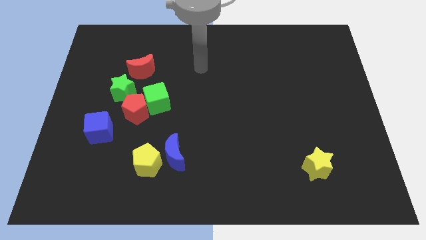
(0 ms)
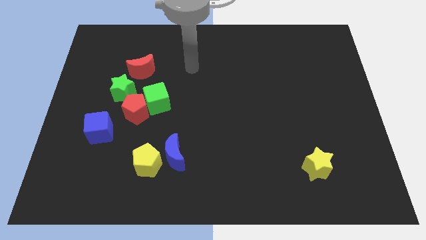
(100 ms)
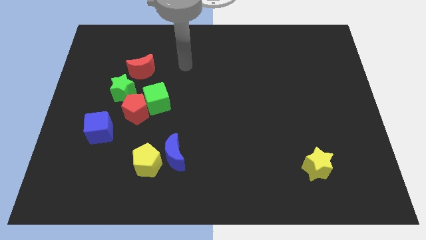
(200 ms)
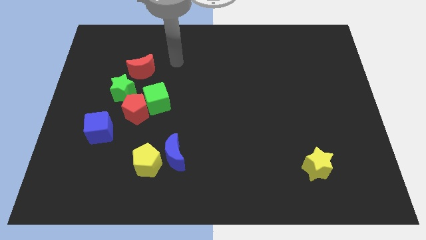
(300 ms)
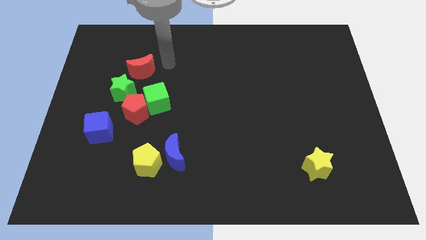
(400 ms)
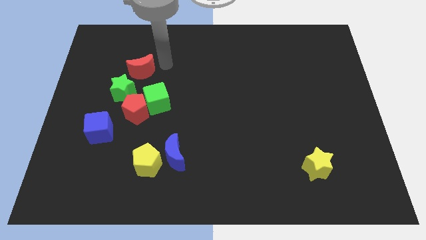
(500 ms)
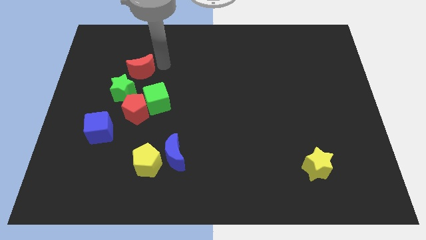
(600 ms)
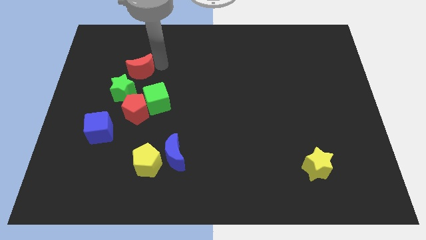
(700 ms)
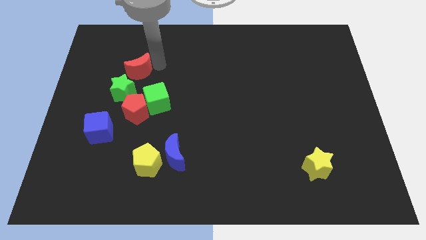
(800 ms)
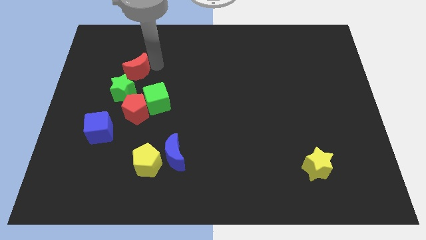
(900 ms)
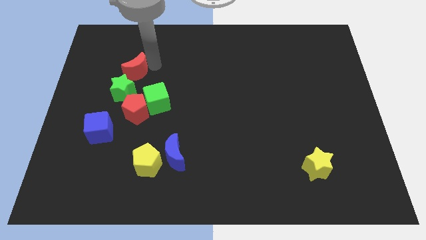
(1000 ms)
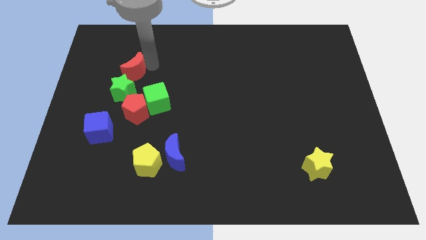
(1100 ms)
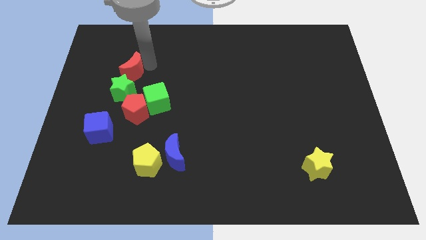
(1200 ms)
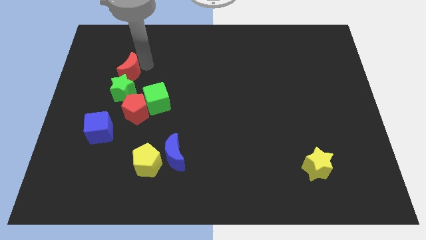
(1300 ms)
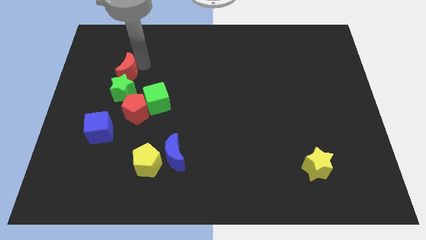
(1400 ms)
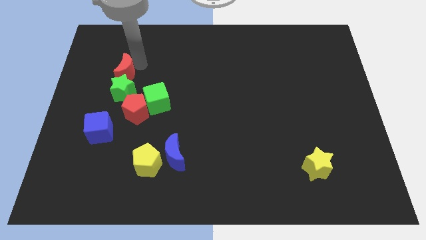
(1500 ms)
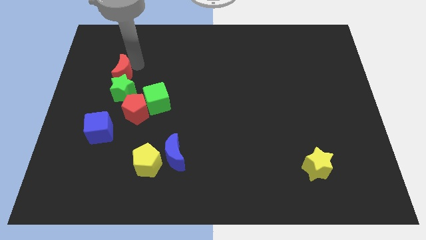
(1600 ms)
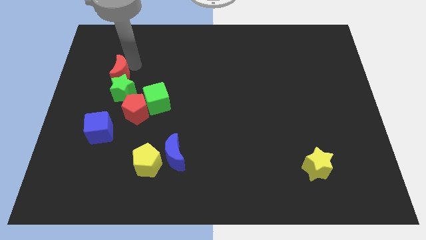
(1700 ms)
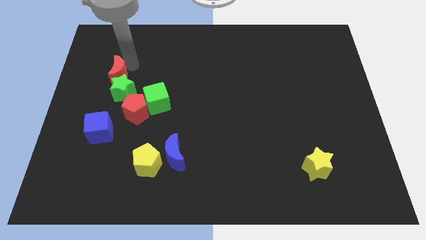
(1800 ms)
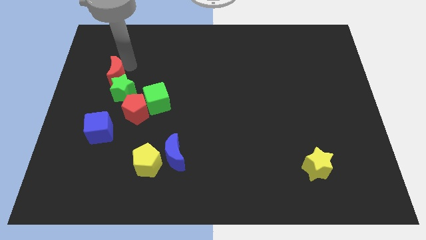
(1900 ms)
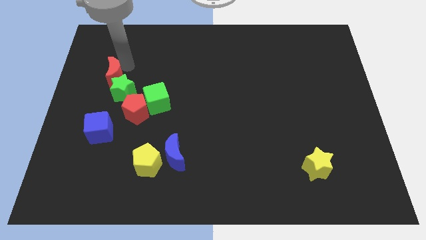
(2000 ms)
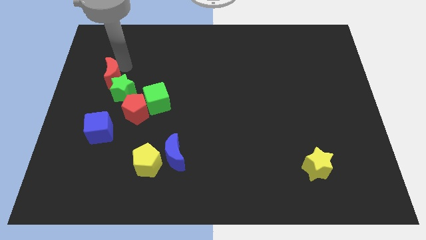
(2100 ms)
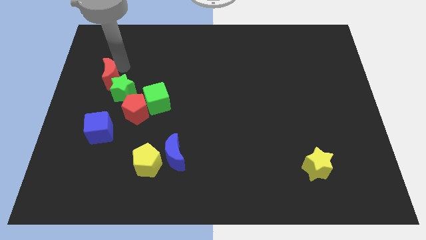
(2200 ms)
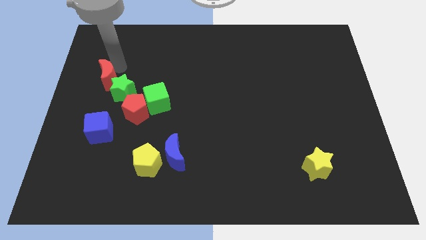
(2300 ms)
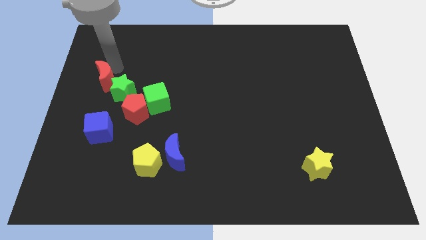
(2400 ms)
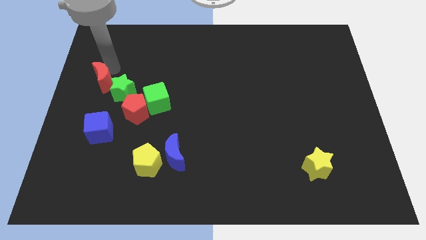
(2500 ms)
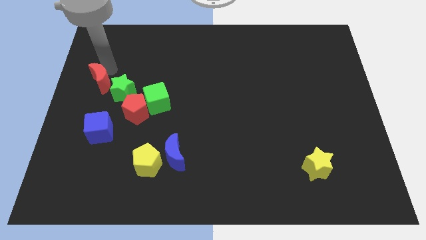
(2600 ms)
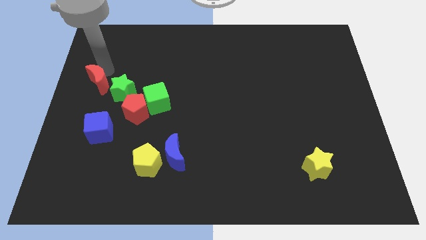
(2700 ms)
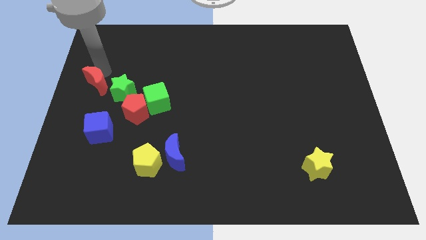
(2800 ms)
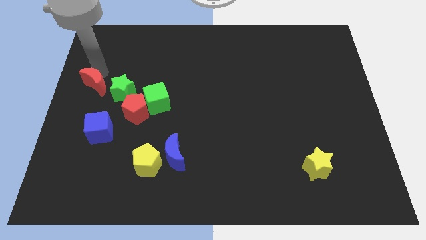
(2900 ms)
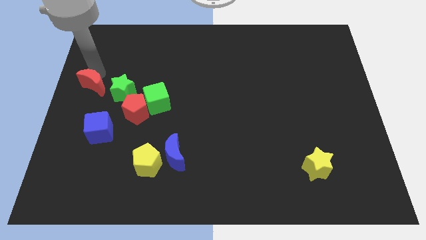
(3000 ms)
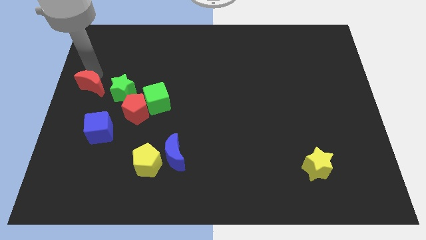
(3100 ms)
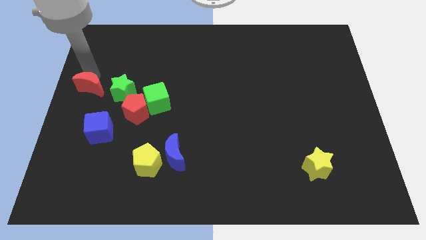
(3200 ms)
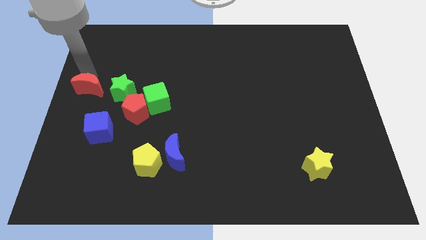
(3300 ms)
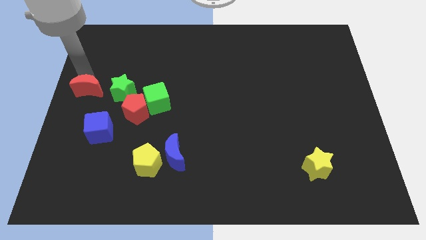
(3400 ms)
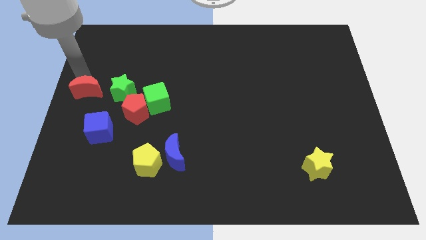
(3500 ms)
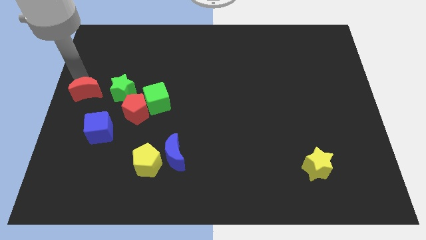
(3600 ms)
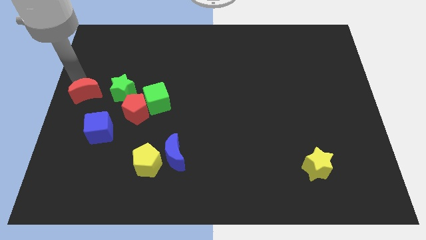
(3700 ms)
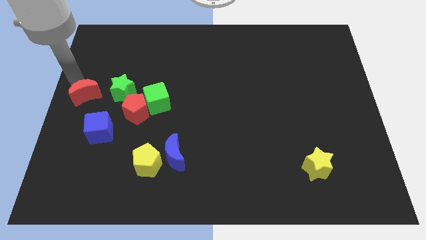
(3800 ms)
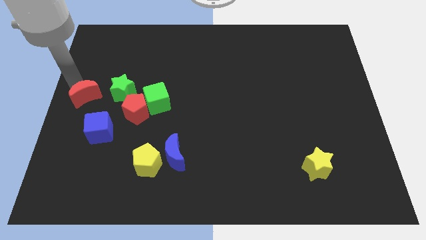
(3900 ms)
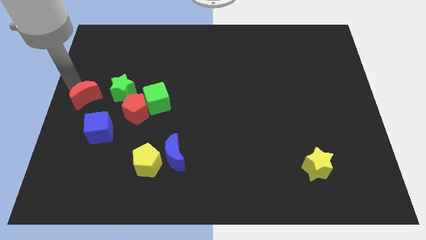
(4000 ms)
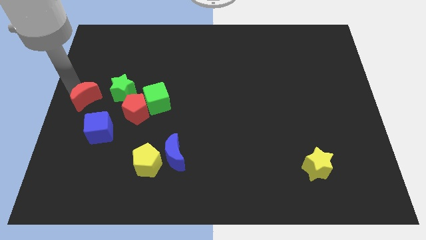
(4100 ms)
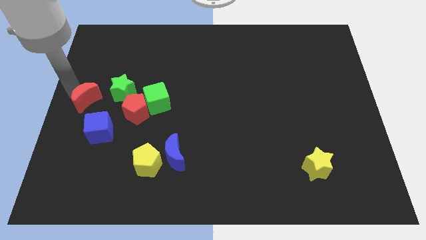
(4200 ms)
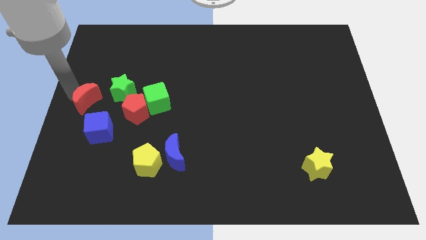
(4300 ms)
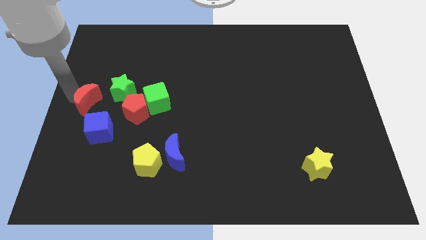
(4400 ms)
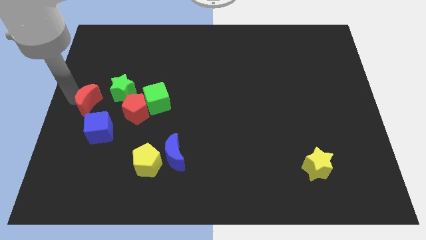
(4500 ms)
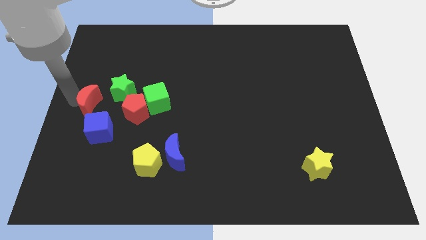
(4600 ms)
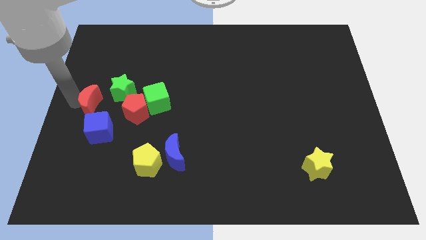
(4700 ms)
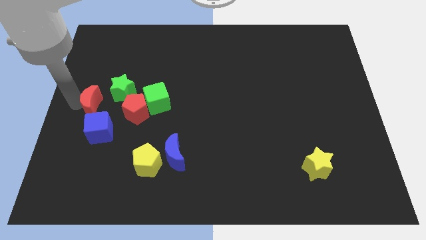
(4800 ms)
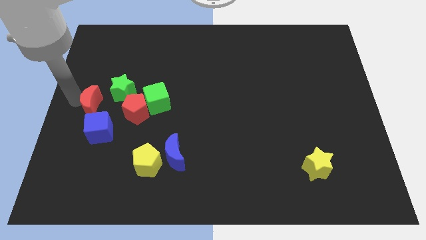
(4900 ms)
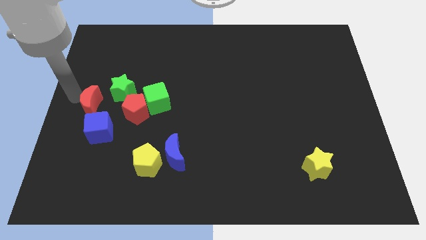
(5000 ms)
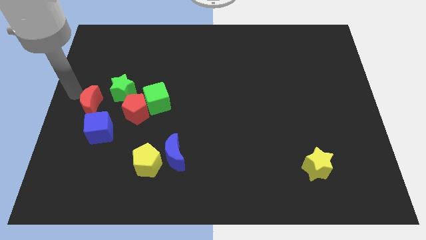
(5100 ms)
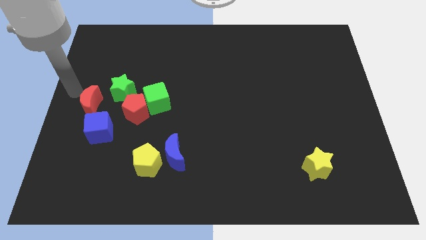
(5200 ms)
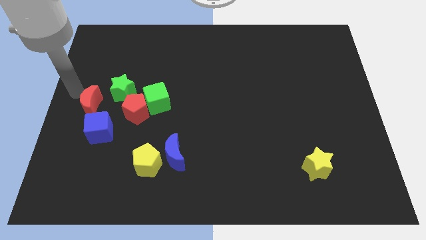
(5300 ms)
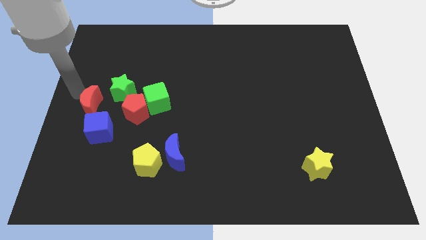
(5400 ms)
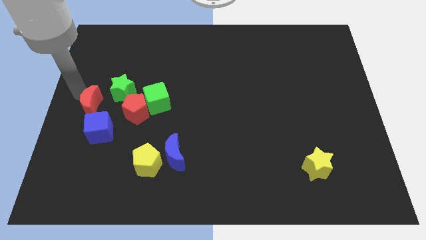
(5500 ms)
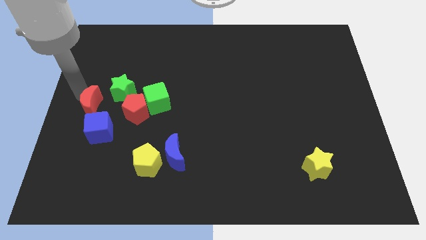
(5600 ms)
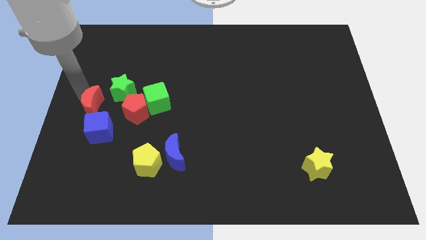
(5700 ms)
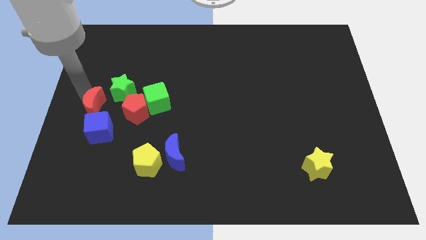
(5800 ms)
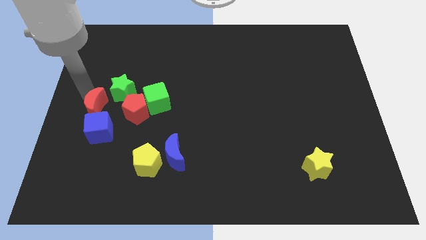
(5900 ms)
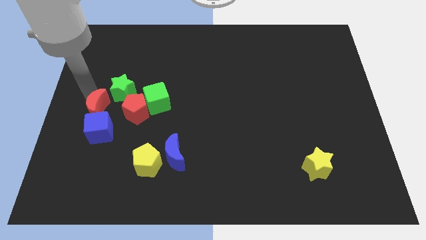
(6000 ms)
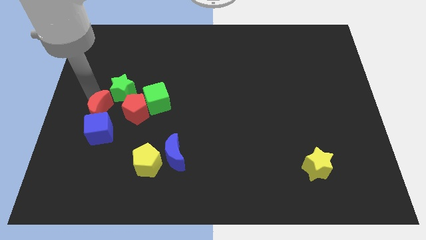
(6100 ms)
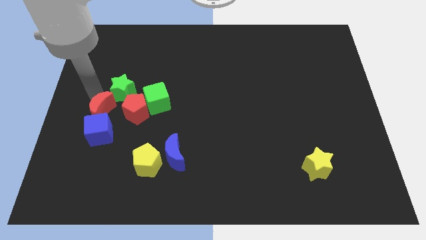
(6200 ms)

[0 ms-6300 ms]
move the red moon to the blue cube

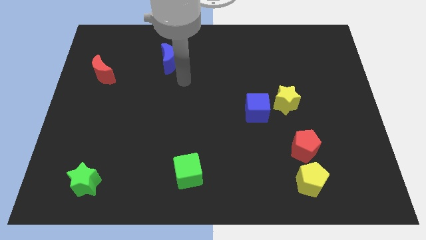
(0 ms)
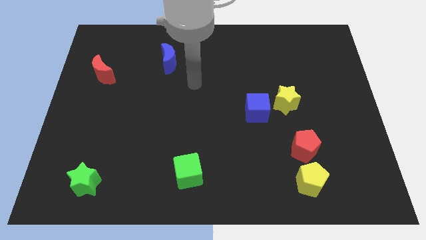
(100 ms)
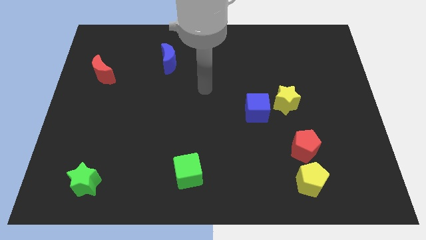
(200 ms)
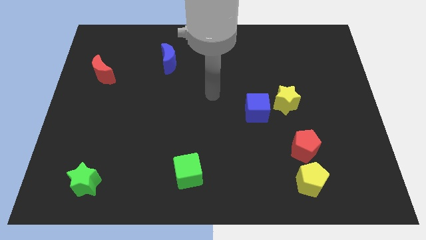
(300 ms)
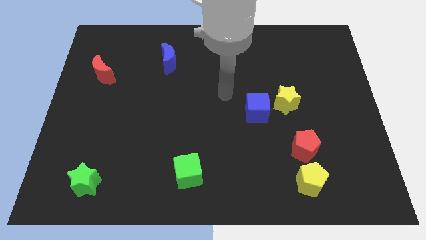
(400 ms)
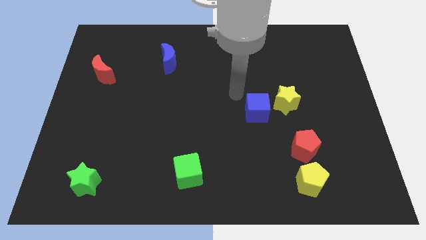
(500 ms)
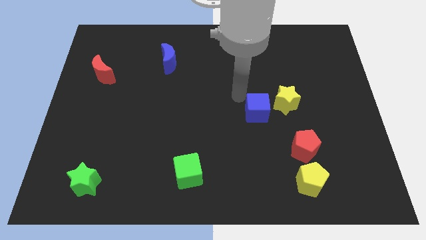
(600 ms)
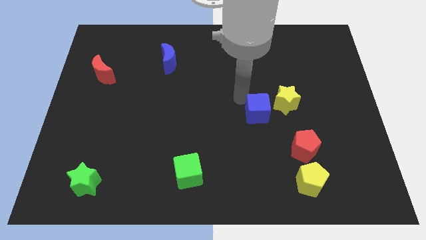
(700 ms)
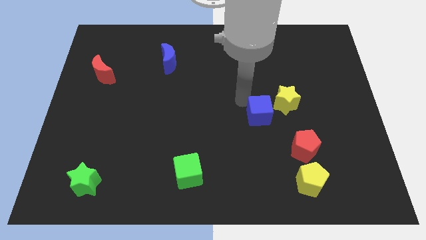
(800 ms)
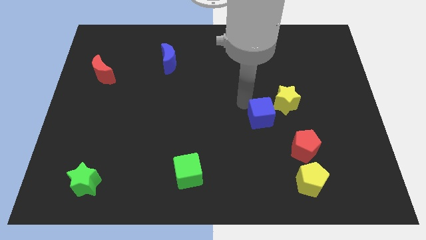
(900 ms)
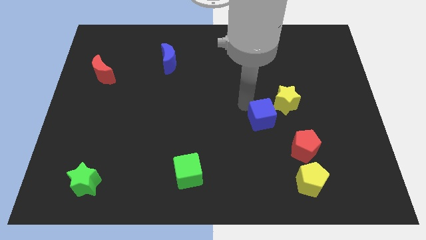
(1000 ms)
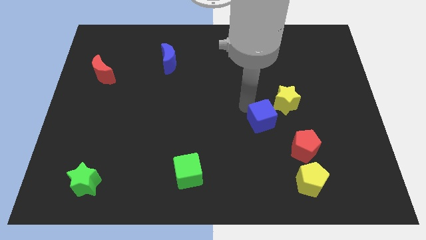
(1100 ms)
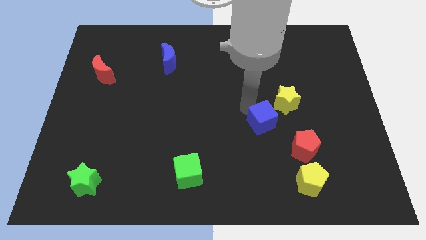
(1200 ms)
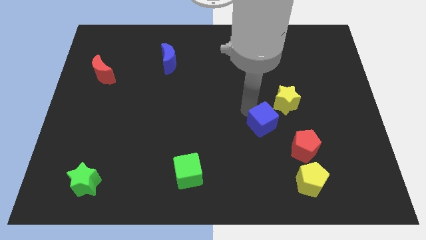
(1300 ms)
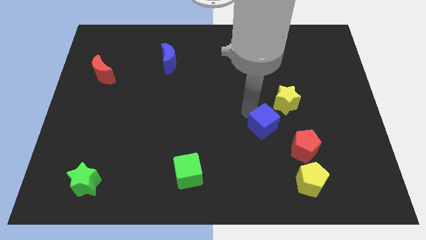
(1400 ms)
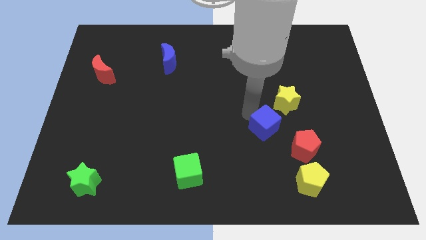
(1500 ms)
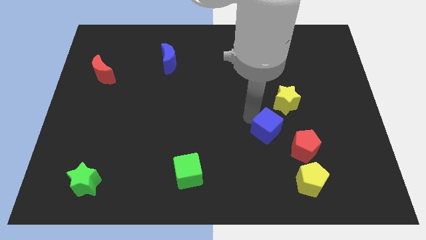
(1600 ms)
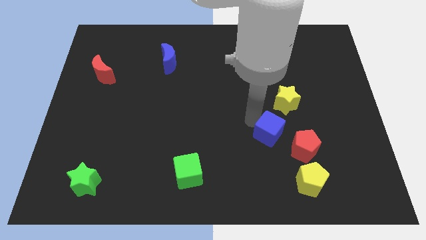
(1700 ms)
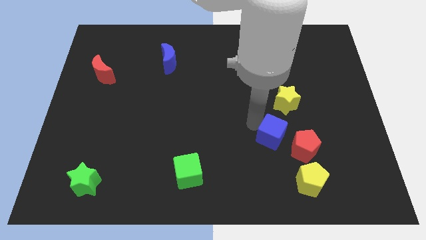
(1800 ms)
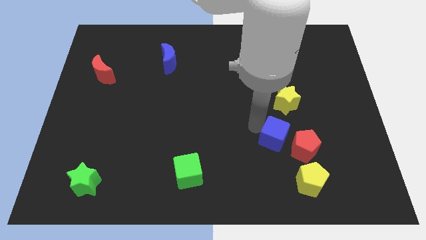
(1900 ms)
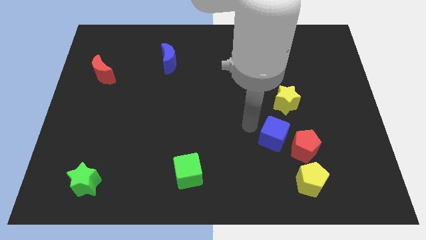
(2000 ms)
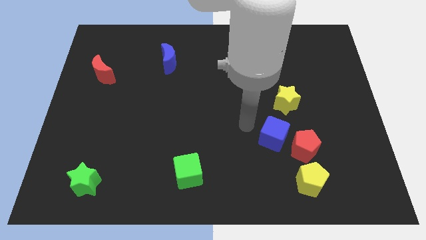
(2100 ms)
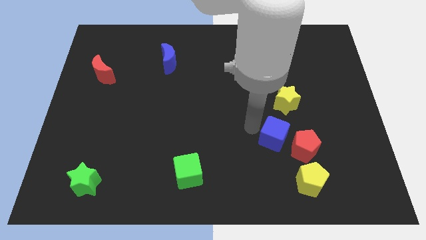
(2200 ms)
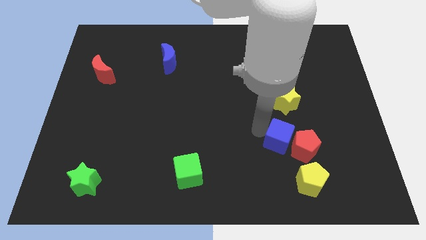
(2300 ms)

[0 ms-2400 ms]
put the blue cube towards the red pentagon
